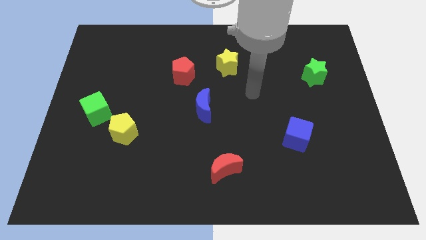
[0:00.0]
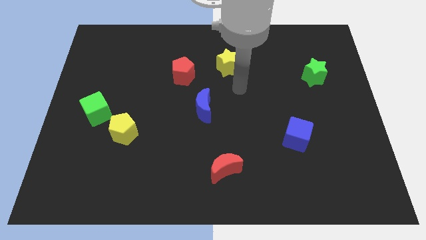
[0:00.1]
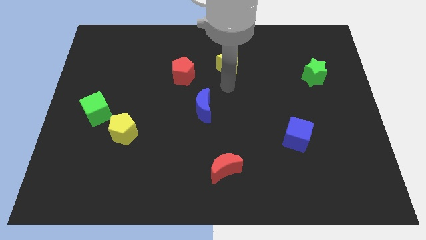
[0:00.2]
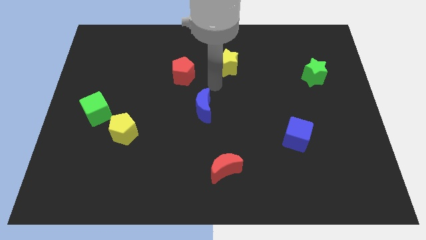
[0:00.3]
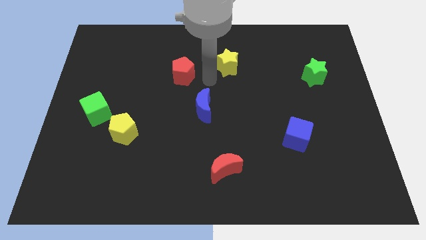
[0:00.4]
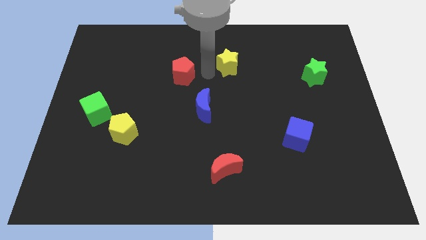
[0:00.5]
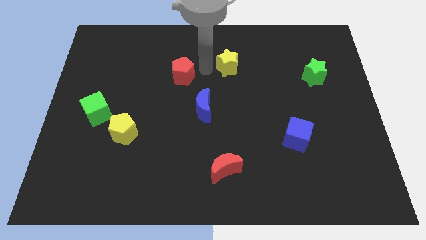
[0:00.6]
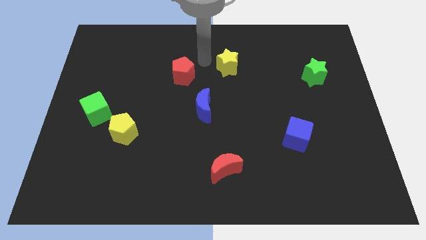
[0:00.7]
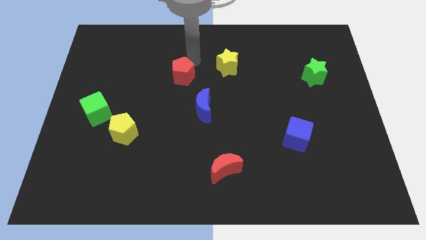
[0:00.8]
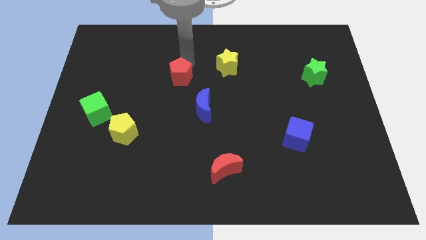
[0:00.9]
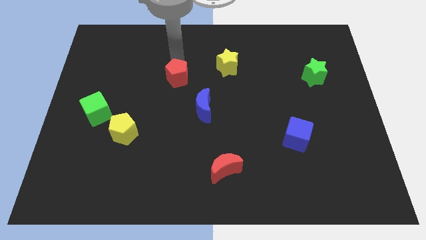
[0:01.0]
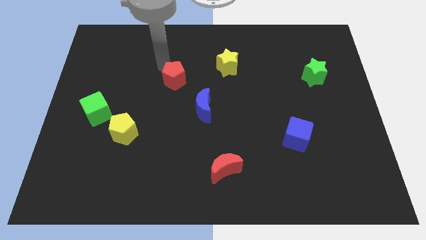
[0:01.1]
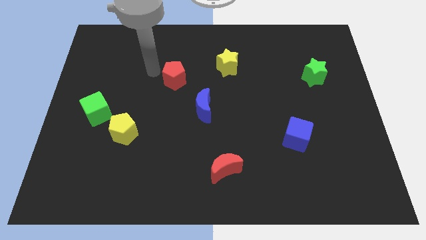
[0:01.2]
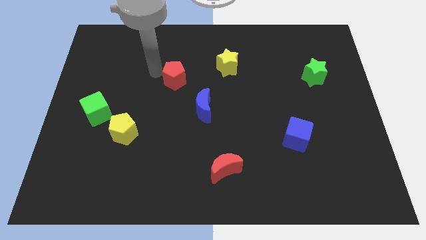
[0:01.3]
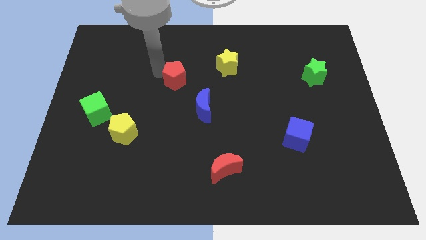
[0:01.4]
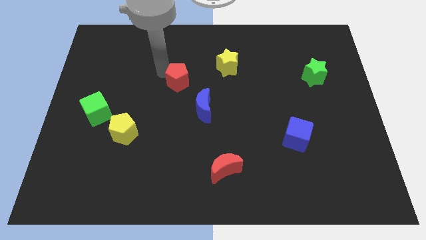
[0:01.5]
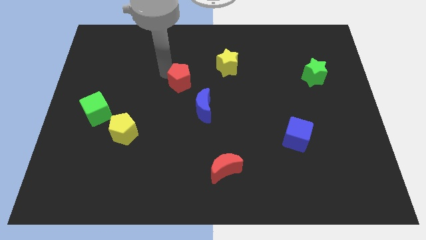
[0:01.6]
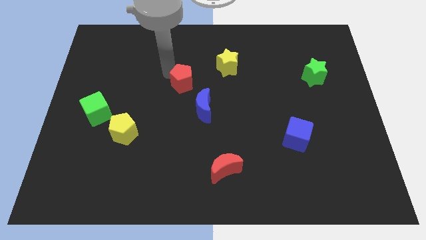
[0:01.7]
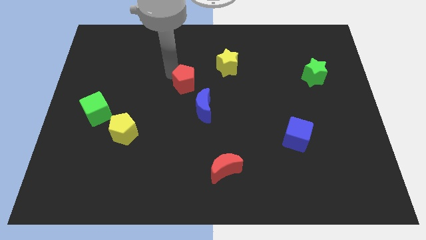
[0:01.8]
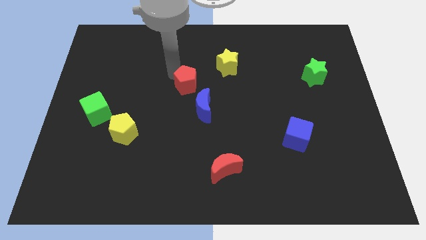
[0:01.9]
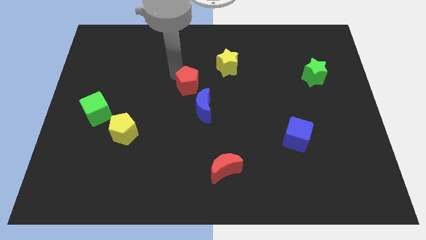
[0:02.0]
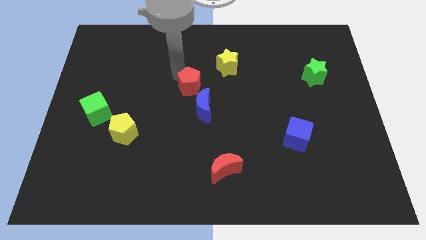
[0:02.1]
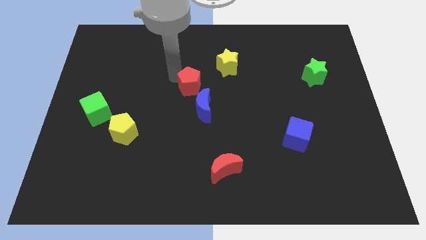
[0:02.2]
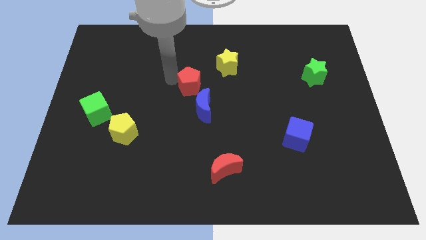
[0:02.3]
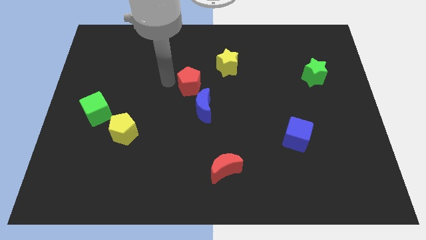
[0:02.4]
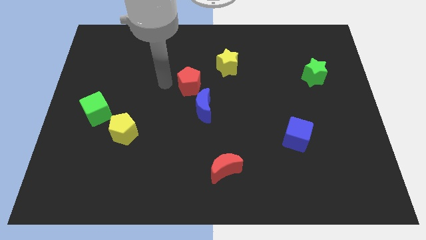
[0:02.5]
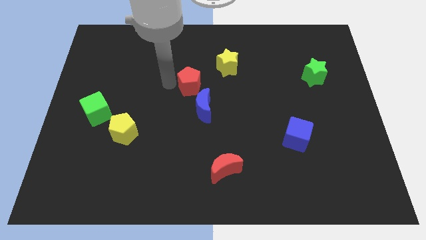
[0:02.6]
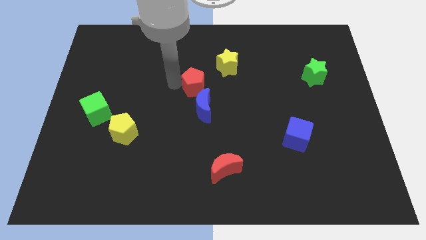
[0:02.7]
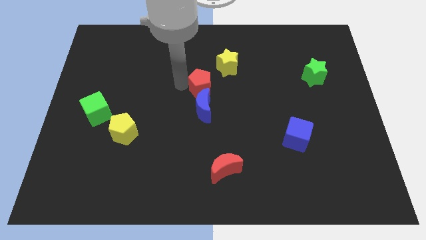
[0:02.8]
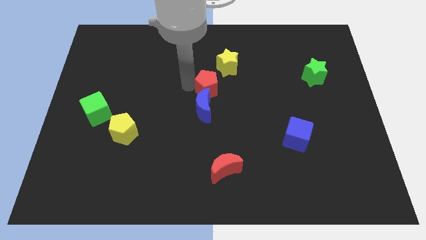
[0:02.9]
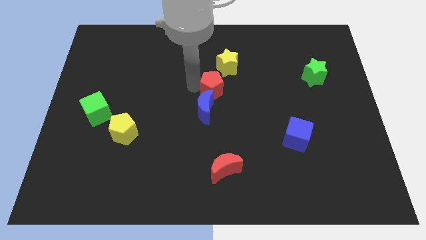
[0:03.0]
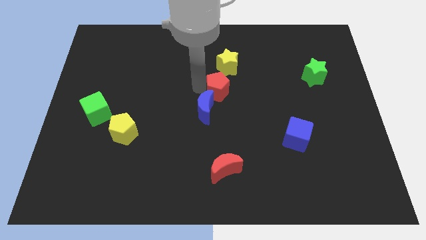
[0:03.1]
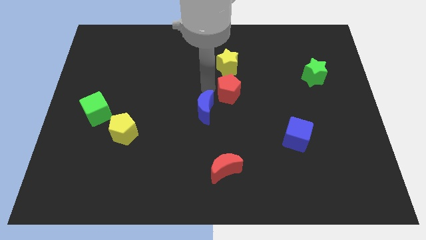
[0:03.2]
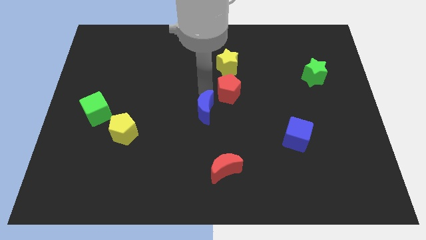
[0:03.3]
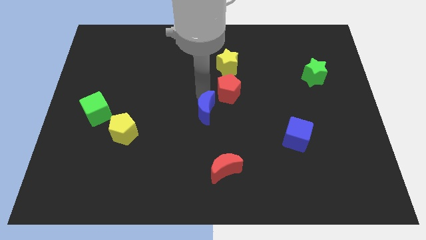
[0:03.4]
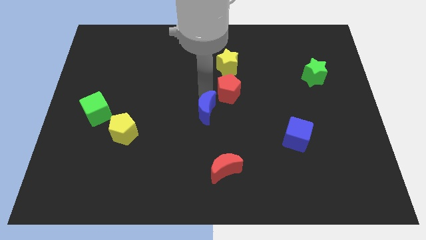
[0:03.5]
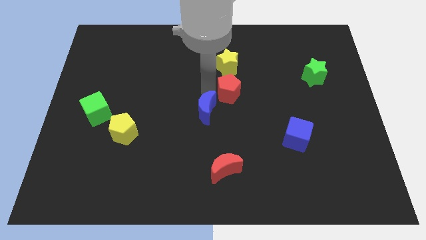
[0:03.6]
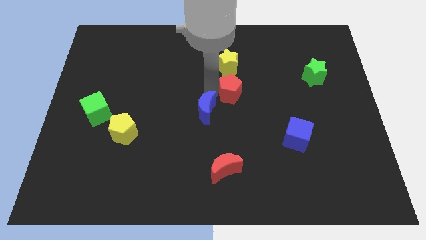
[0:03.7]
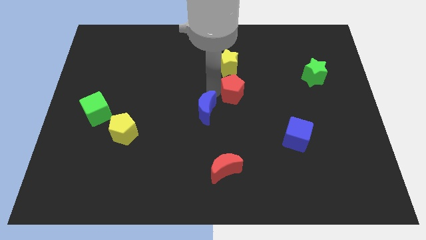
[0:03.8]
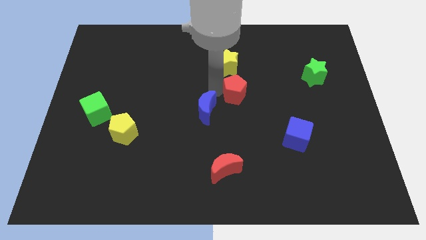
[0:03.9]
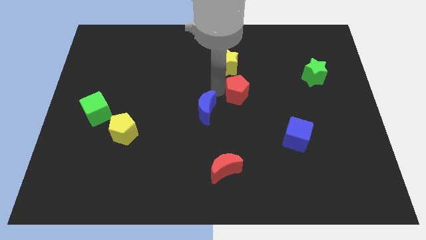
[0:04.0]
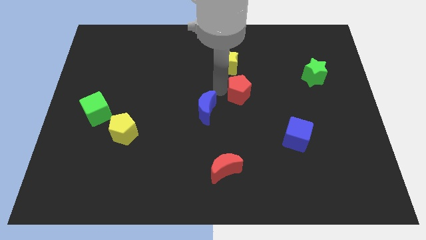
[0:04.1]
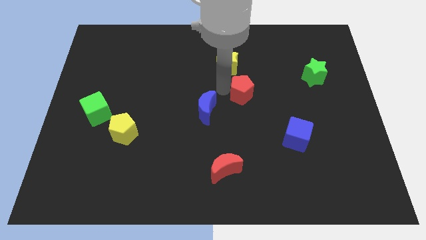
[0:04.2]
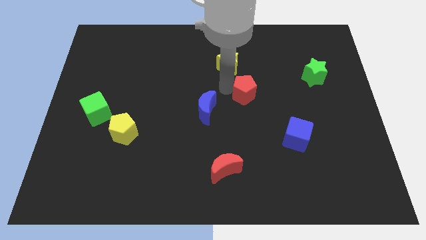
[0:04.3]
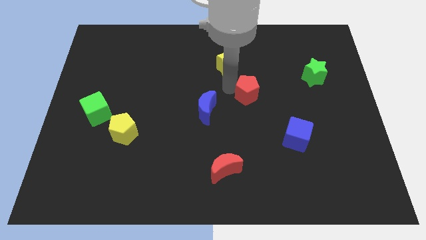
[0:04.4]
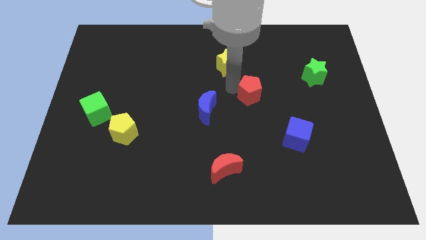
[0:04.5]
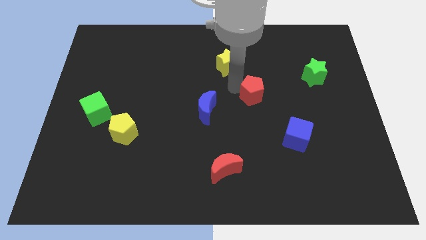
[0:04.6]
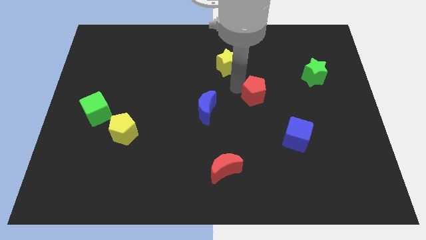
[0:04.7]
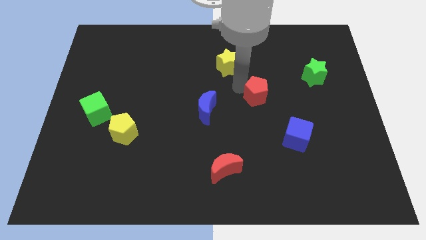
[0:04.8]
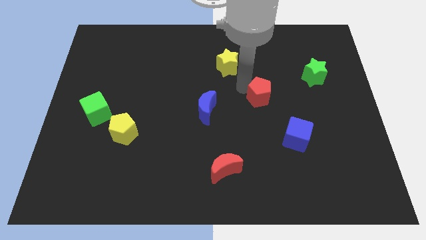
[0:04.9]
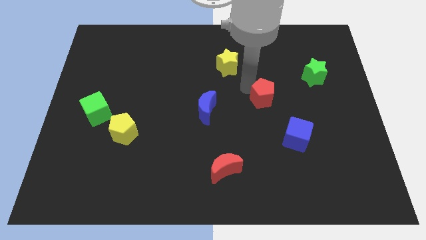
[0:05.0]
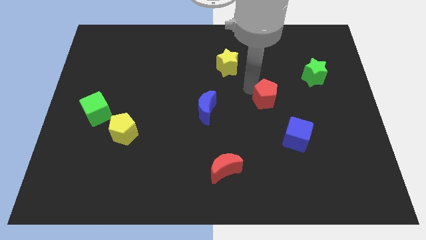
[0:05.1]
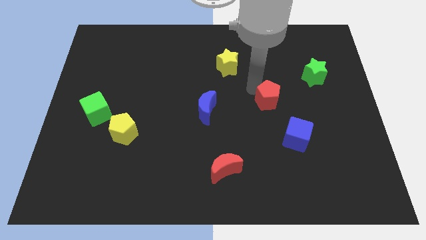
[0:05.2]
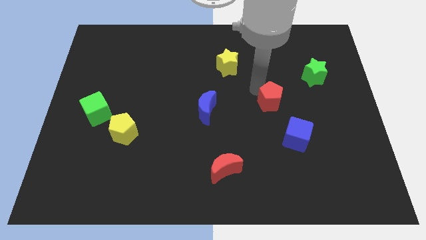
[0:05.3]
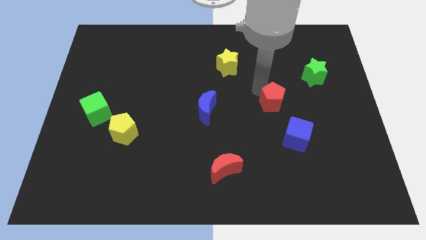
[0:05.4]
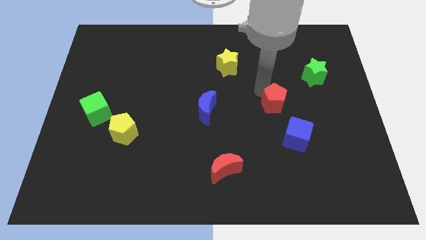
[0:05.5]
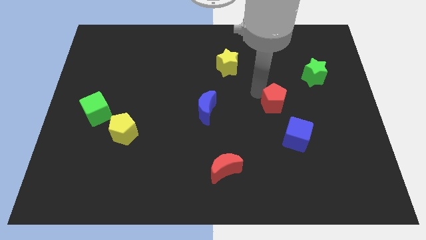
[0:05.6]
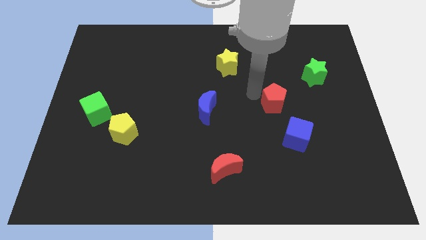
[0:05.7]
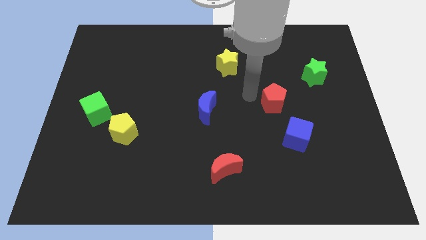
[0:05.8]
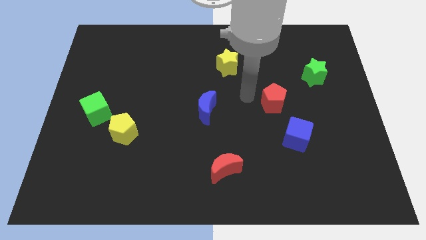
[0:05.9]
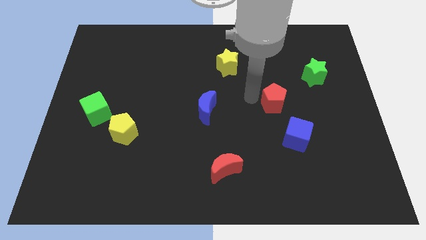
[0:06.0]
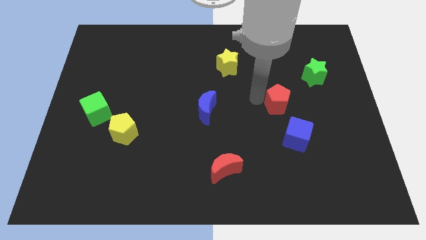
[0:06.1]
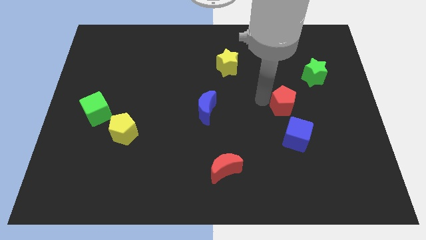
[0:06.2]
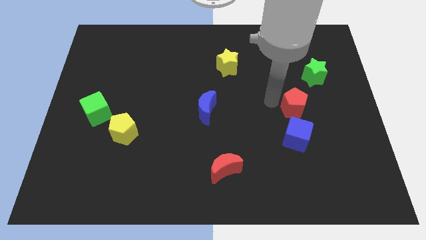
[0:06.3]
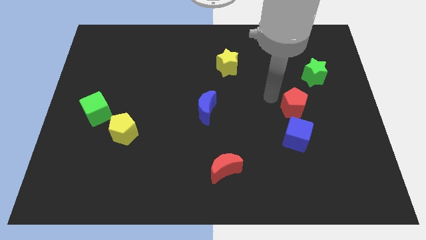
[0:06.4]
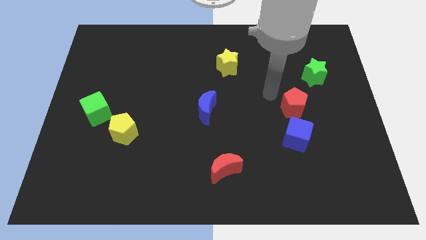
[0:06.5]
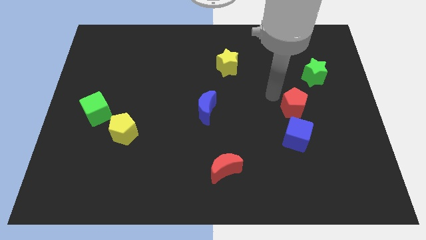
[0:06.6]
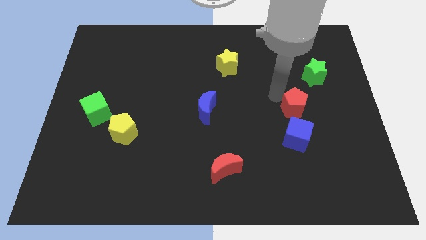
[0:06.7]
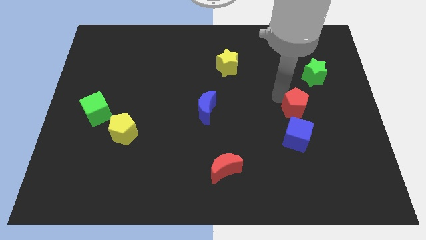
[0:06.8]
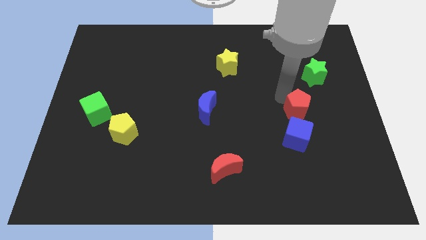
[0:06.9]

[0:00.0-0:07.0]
move the red pentagon to the top right side of the blue cube
